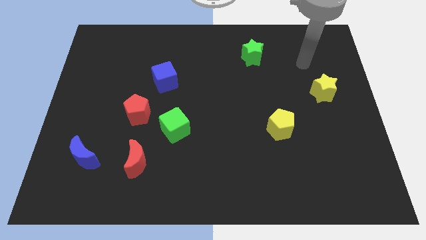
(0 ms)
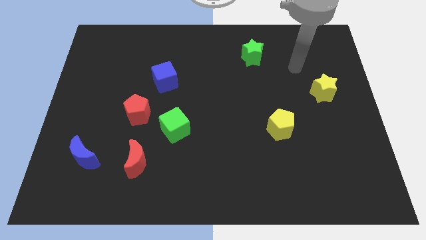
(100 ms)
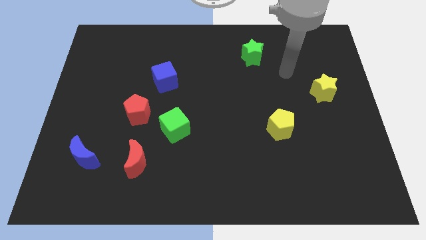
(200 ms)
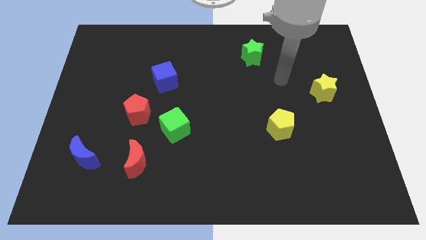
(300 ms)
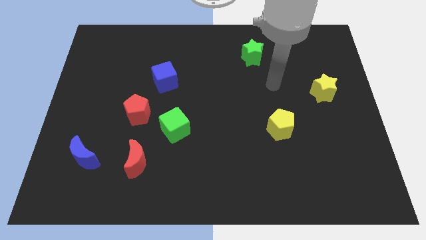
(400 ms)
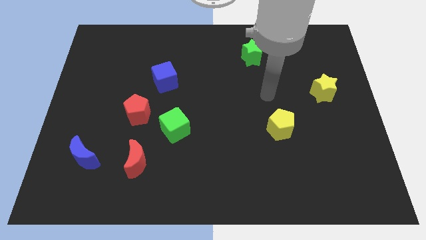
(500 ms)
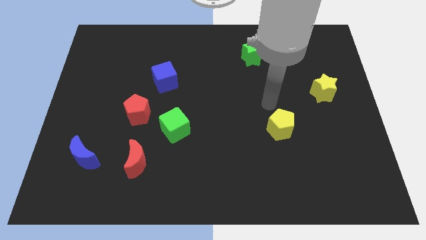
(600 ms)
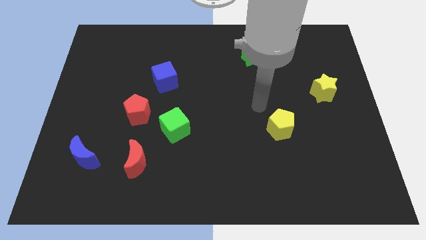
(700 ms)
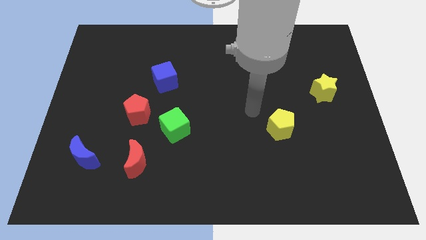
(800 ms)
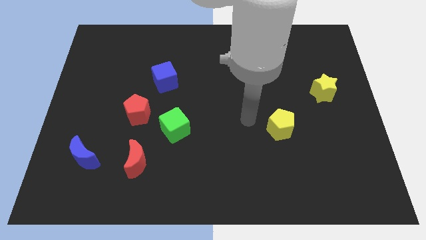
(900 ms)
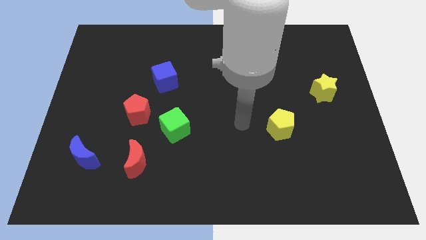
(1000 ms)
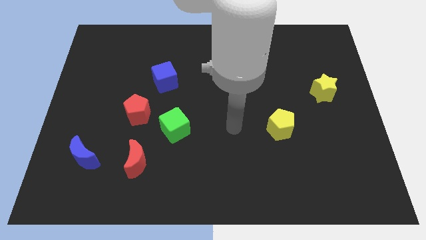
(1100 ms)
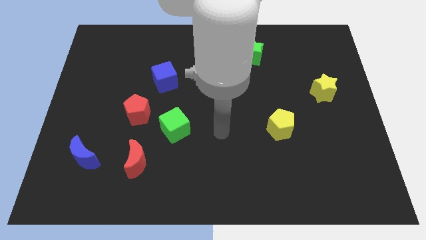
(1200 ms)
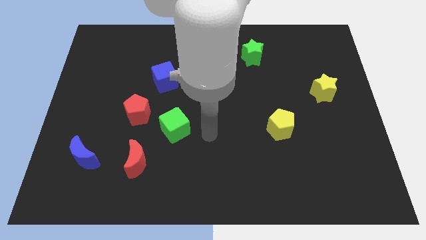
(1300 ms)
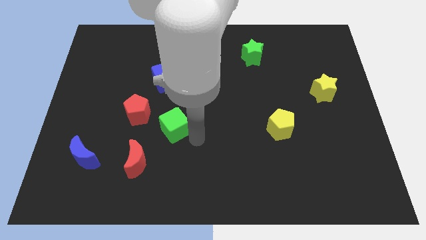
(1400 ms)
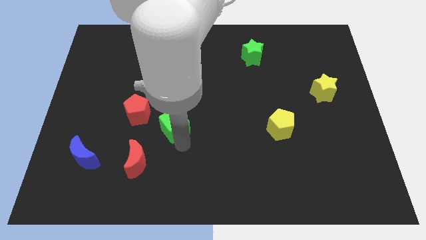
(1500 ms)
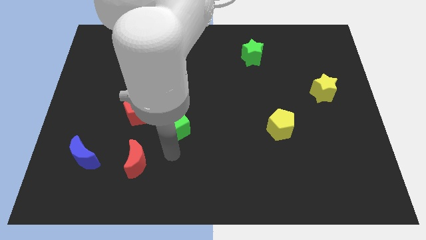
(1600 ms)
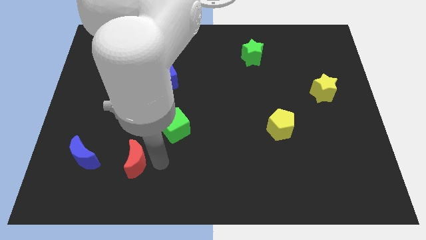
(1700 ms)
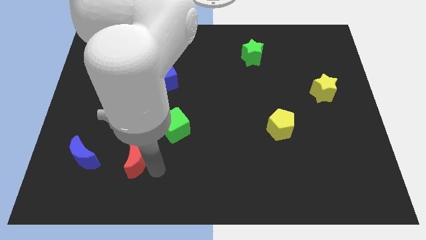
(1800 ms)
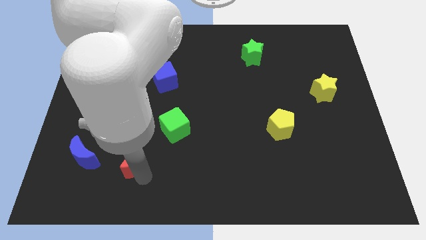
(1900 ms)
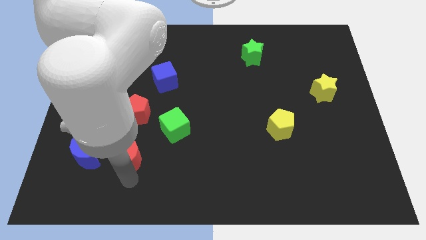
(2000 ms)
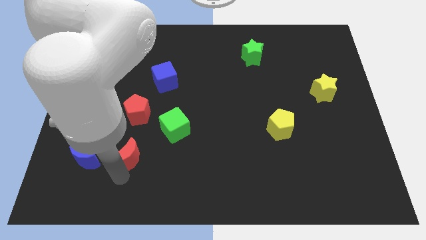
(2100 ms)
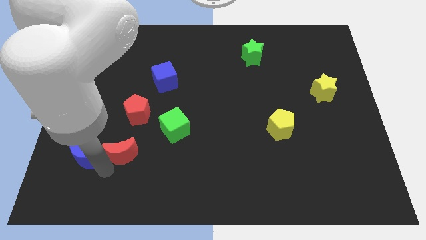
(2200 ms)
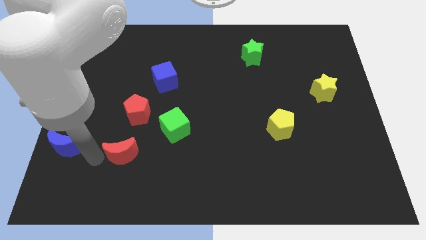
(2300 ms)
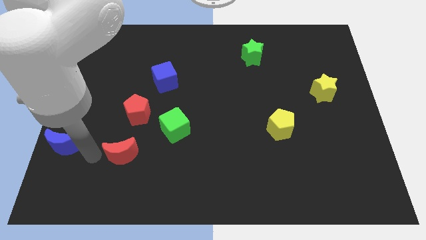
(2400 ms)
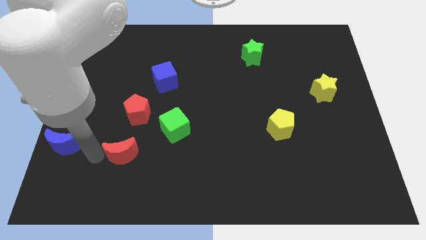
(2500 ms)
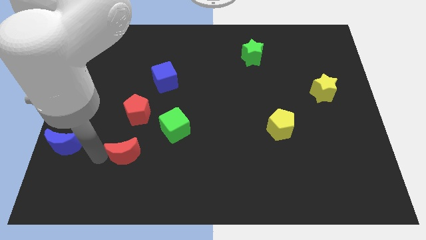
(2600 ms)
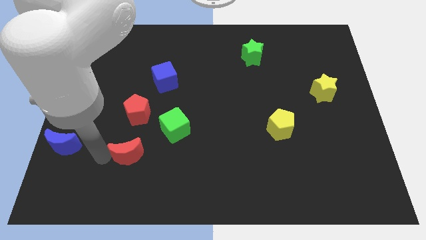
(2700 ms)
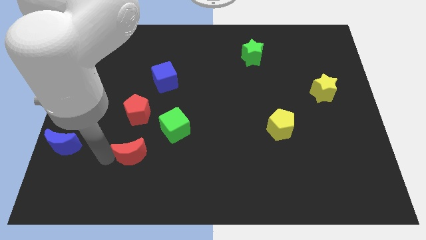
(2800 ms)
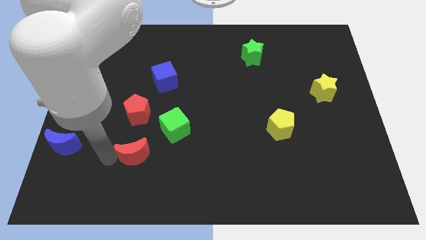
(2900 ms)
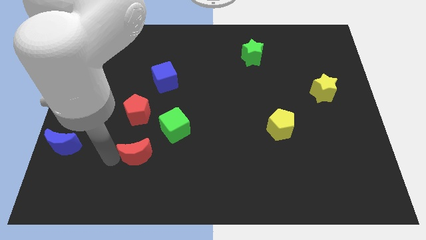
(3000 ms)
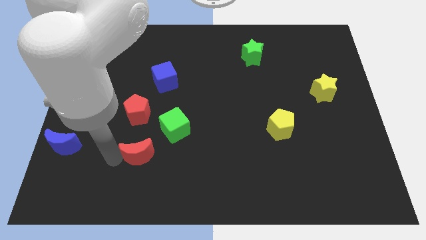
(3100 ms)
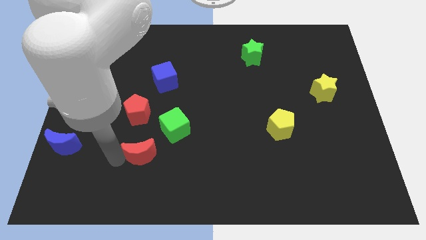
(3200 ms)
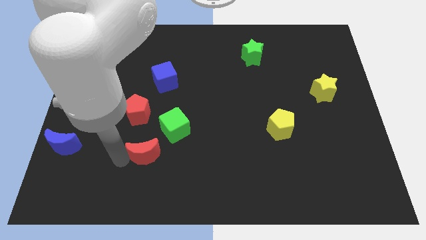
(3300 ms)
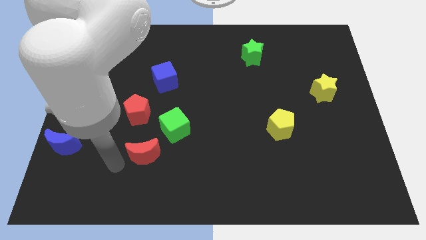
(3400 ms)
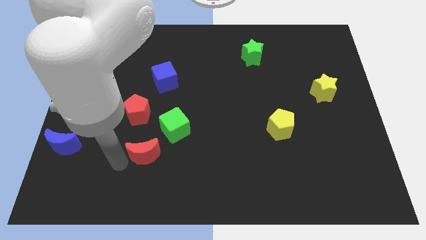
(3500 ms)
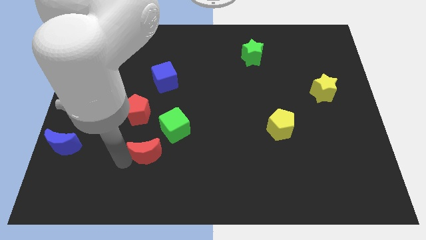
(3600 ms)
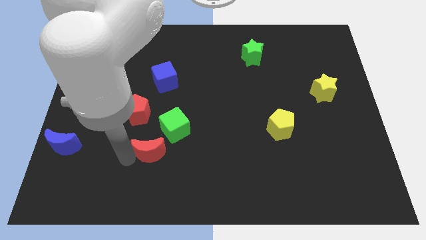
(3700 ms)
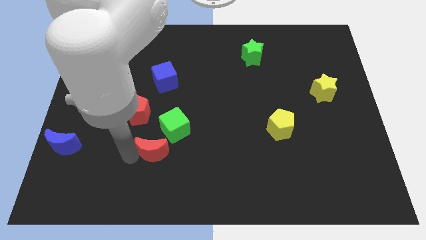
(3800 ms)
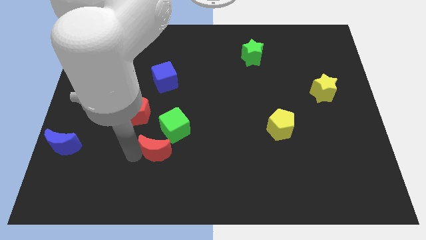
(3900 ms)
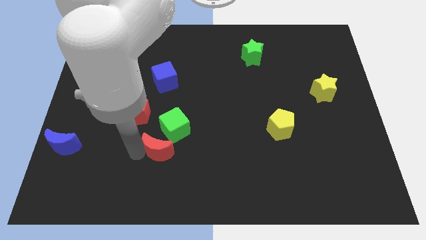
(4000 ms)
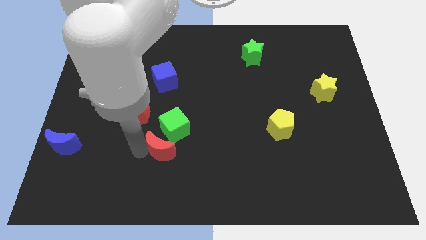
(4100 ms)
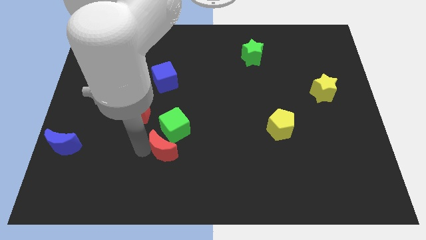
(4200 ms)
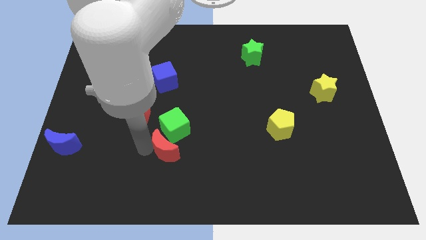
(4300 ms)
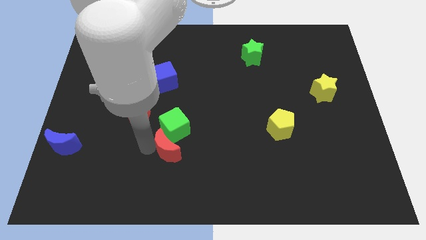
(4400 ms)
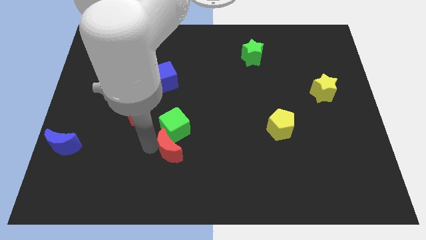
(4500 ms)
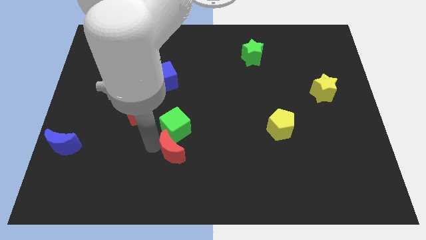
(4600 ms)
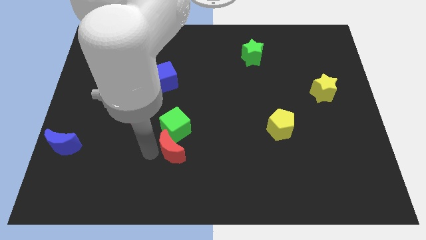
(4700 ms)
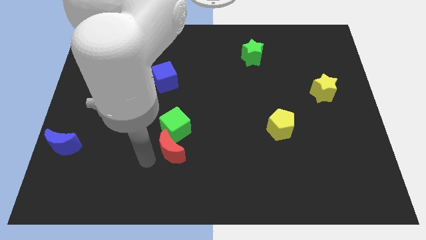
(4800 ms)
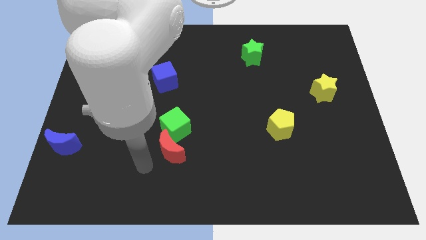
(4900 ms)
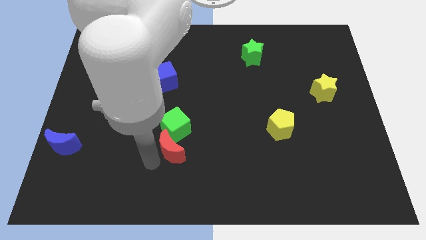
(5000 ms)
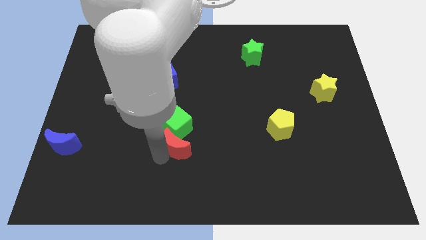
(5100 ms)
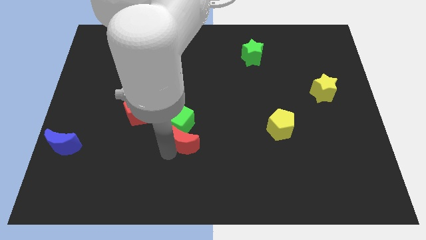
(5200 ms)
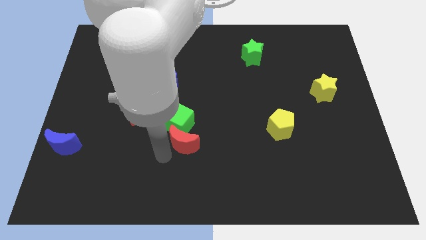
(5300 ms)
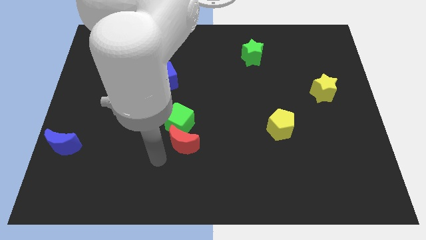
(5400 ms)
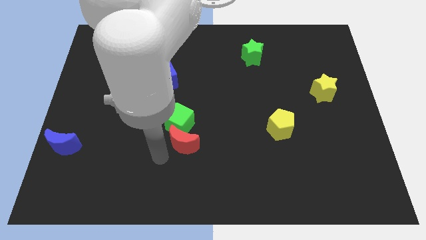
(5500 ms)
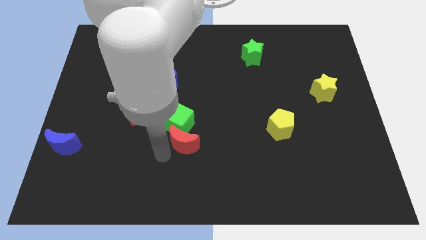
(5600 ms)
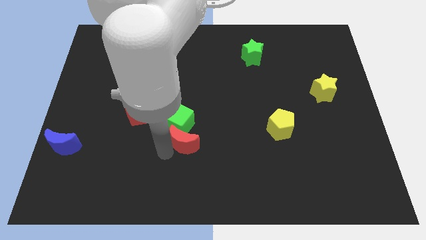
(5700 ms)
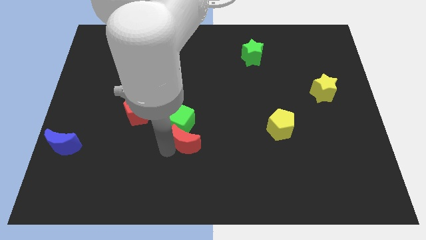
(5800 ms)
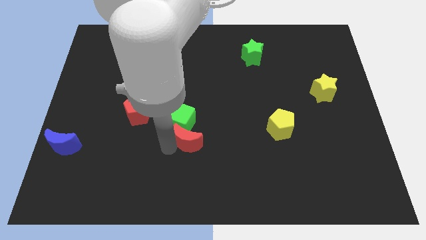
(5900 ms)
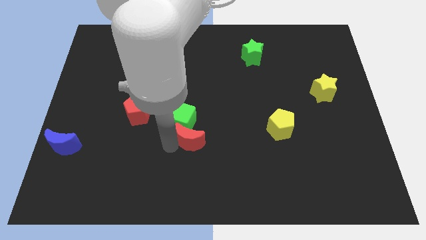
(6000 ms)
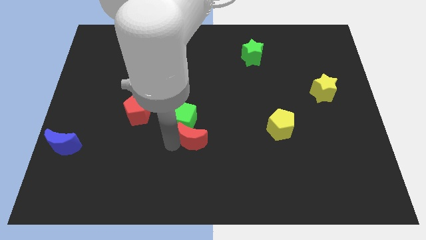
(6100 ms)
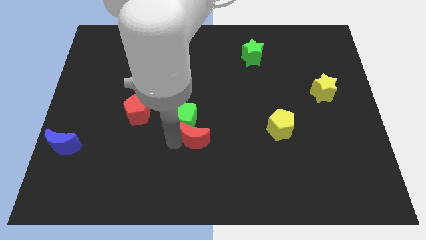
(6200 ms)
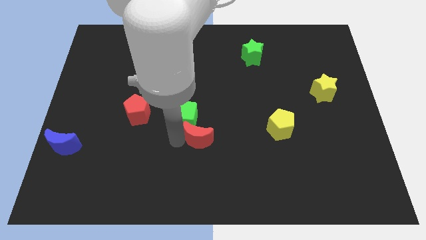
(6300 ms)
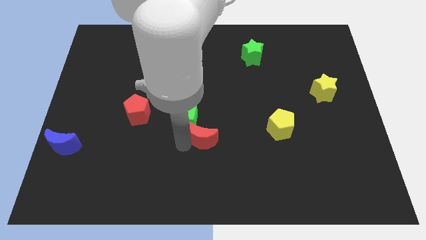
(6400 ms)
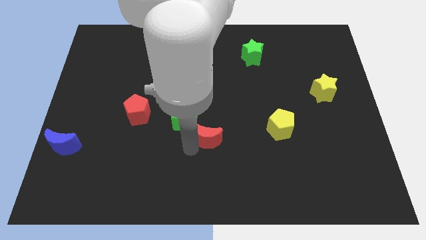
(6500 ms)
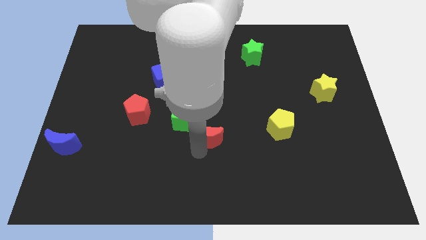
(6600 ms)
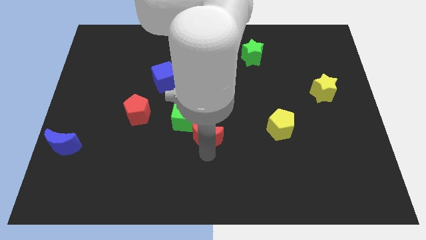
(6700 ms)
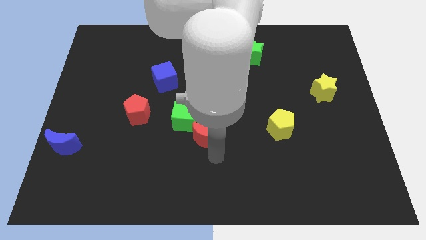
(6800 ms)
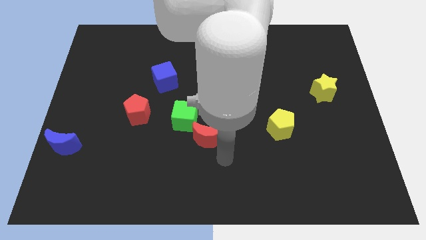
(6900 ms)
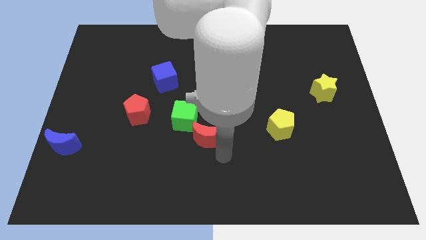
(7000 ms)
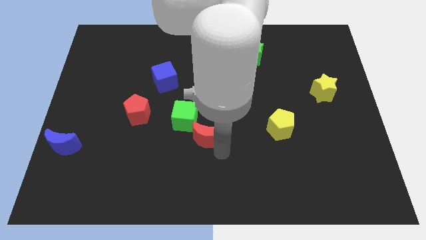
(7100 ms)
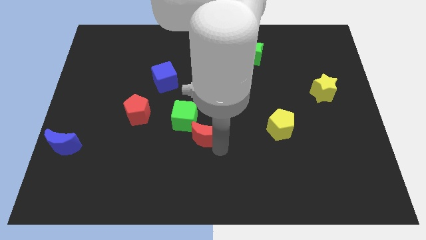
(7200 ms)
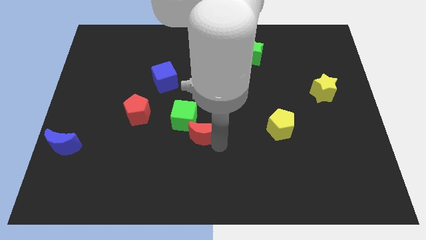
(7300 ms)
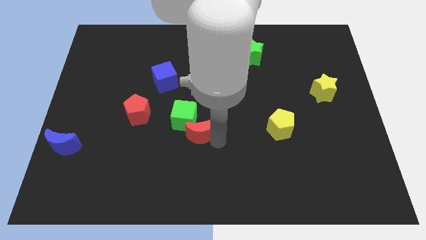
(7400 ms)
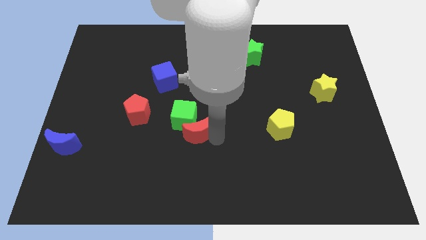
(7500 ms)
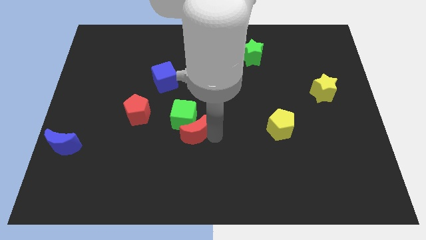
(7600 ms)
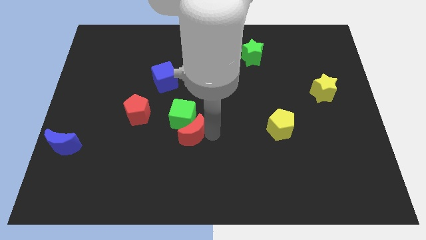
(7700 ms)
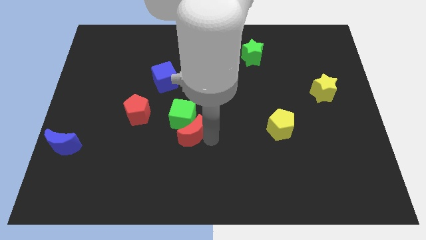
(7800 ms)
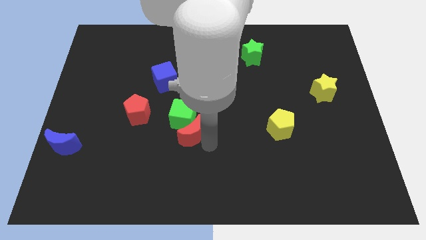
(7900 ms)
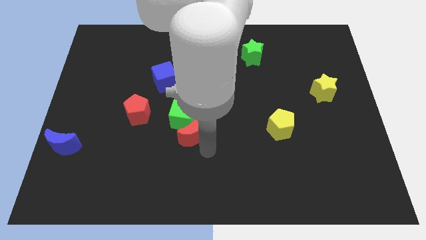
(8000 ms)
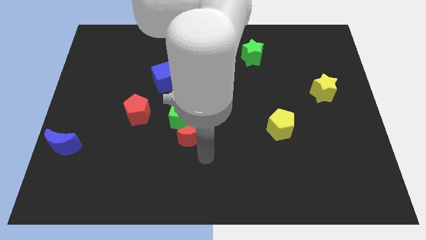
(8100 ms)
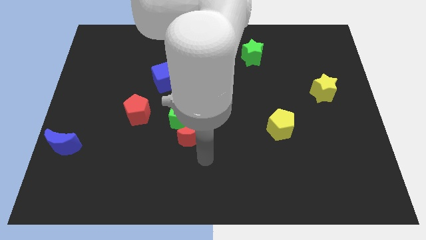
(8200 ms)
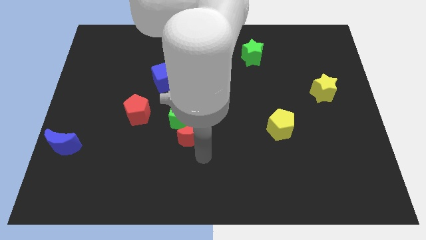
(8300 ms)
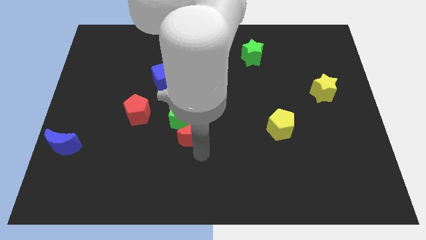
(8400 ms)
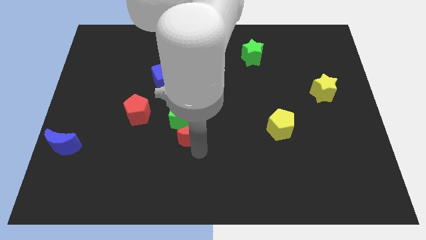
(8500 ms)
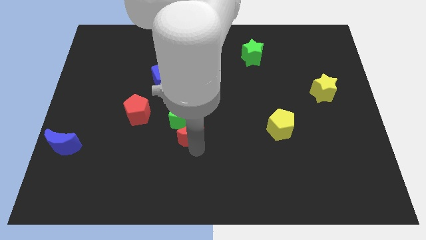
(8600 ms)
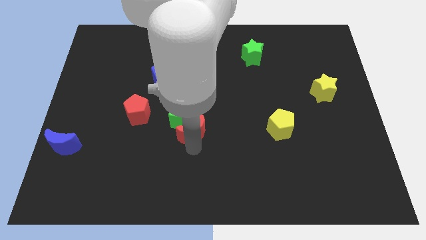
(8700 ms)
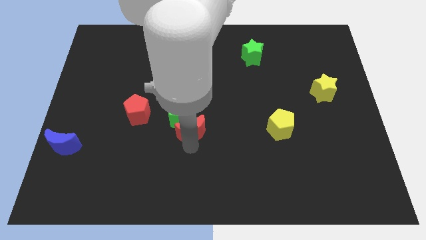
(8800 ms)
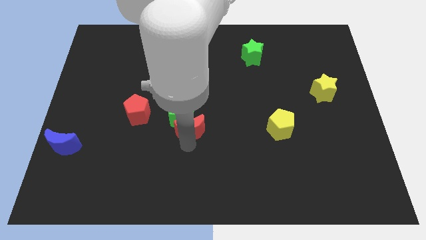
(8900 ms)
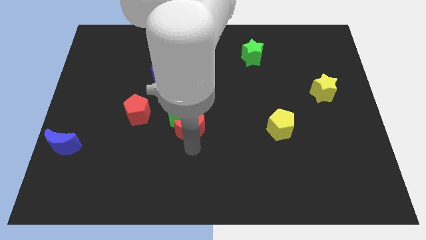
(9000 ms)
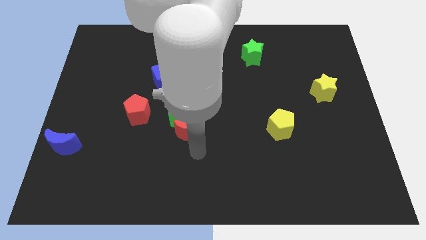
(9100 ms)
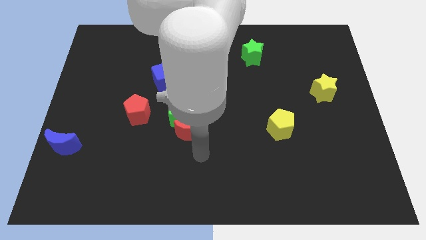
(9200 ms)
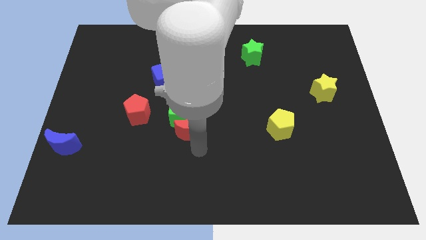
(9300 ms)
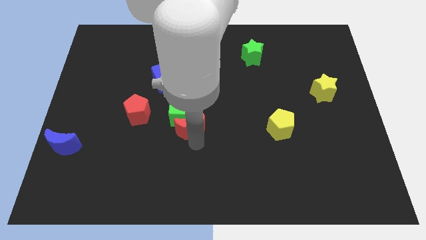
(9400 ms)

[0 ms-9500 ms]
move the red moon just right of the red pentagon
